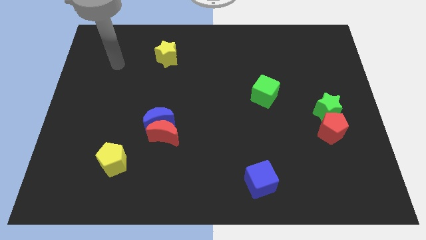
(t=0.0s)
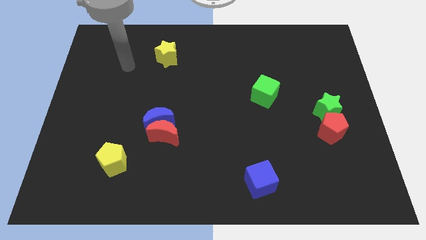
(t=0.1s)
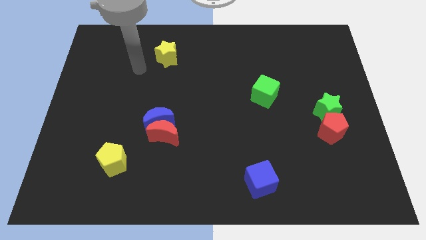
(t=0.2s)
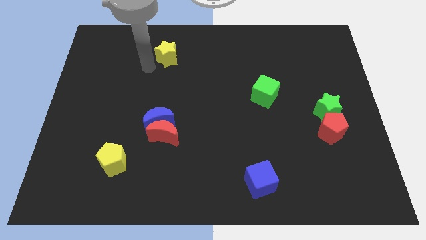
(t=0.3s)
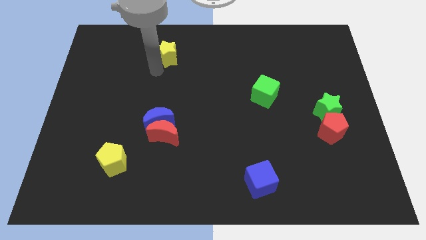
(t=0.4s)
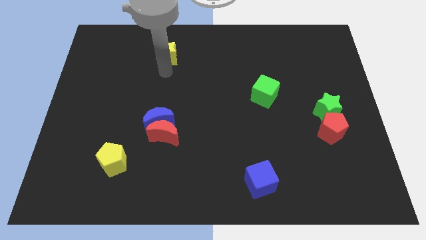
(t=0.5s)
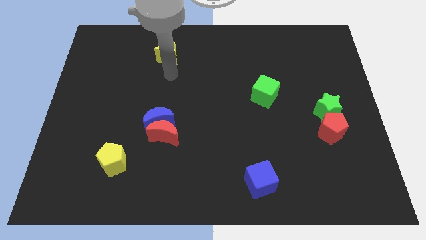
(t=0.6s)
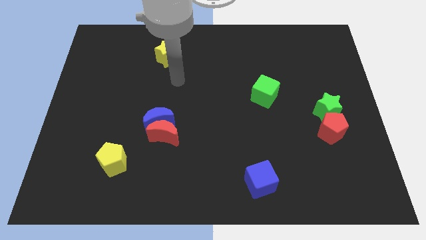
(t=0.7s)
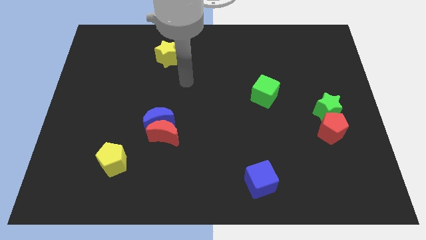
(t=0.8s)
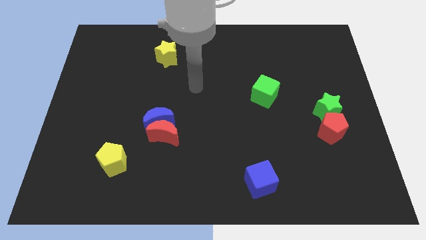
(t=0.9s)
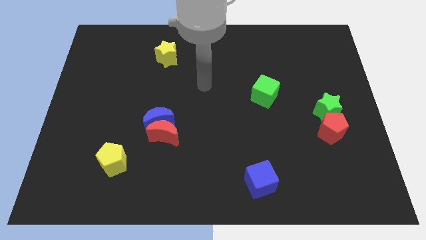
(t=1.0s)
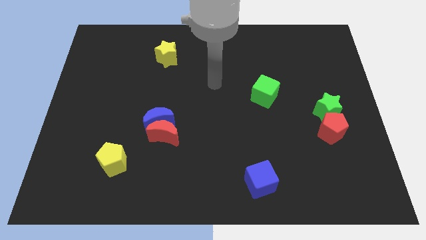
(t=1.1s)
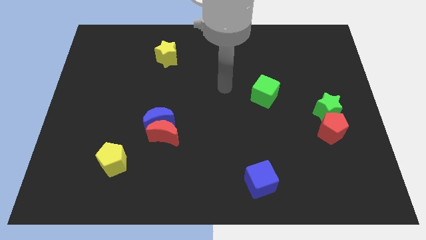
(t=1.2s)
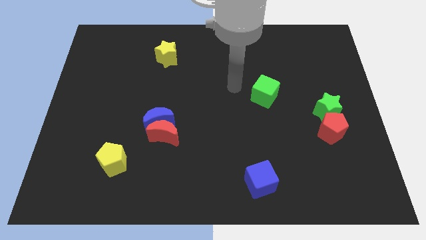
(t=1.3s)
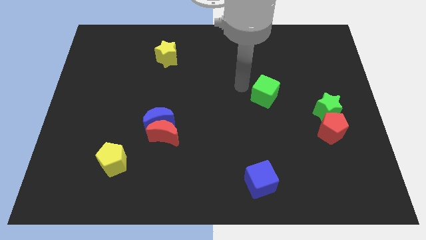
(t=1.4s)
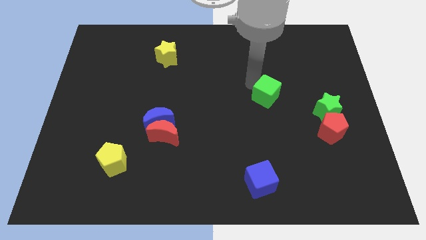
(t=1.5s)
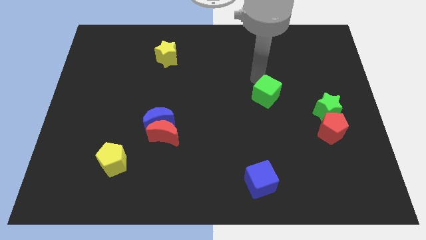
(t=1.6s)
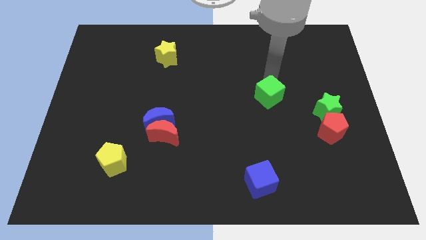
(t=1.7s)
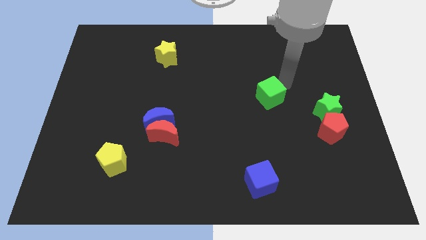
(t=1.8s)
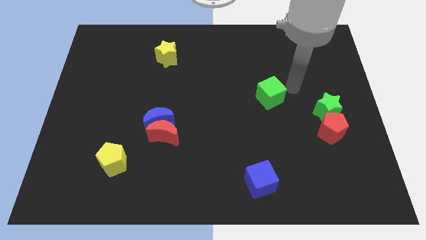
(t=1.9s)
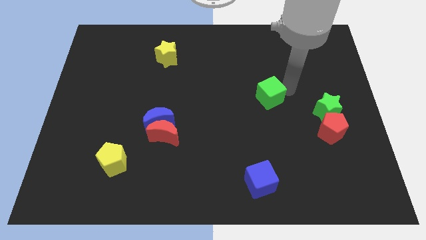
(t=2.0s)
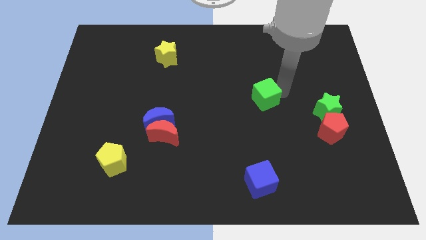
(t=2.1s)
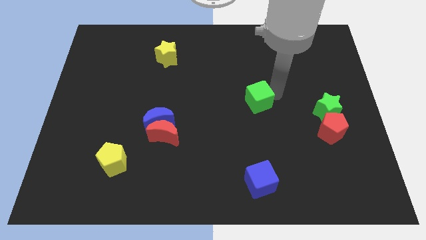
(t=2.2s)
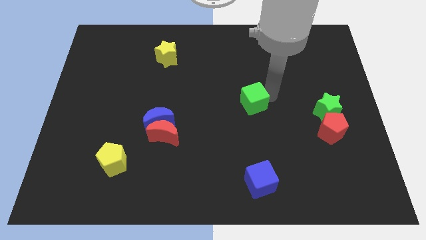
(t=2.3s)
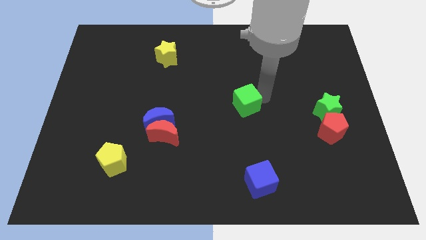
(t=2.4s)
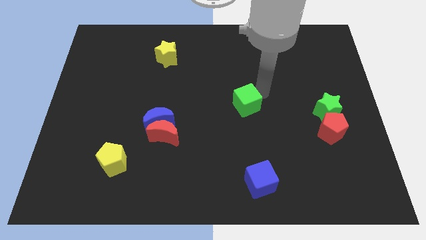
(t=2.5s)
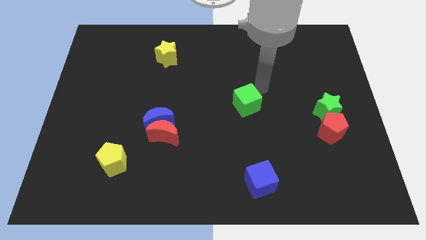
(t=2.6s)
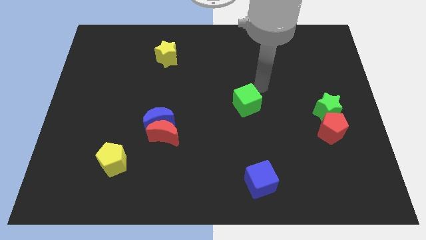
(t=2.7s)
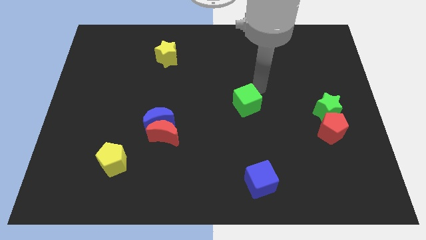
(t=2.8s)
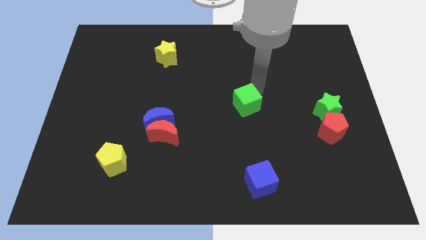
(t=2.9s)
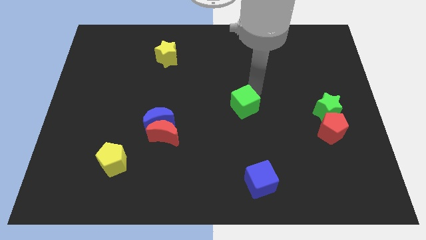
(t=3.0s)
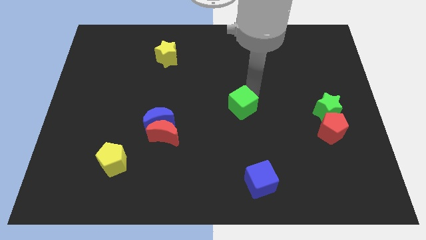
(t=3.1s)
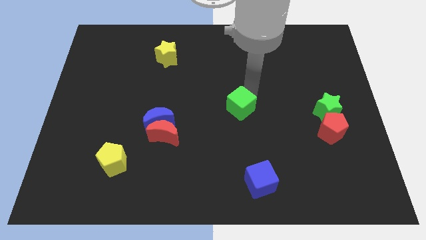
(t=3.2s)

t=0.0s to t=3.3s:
push the green cube diagonally down and to the left slightly

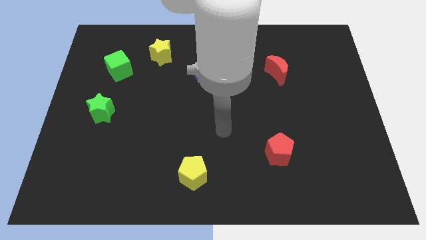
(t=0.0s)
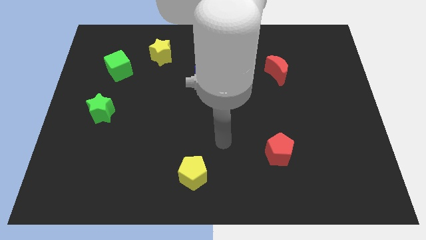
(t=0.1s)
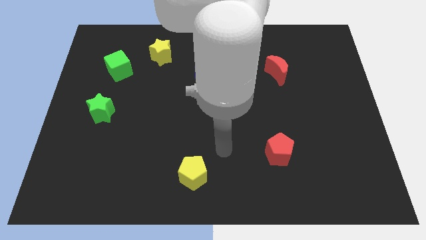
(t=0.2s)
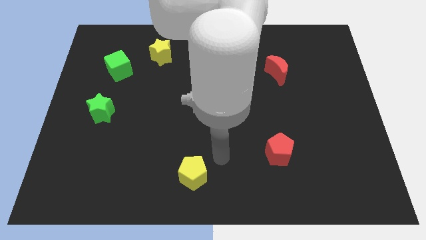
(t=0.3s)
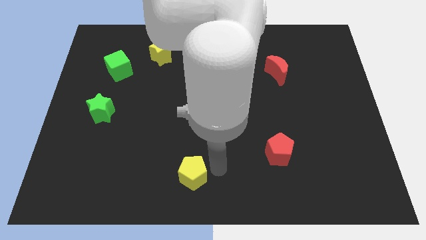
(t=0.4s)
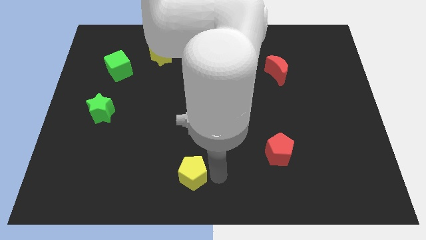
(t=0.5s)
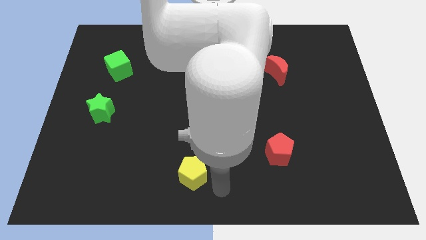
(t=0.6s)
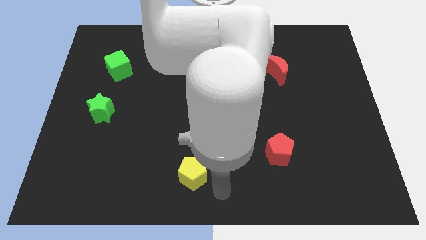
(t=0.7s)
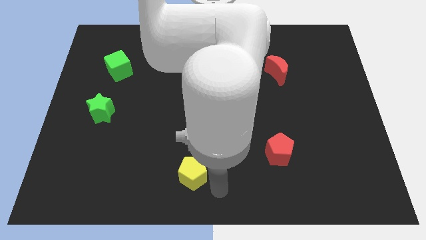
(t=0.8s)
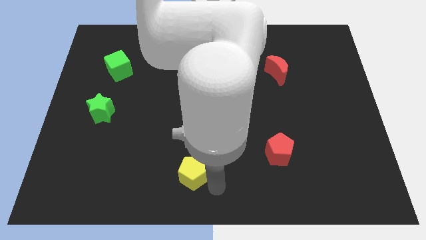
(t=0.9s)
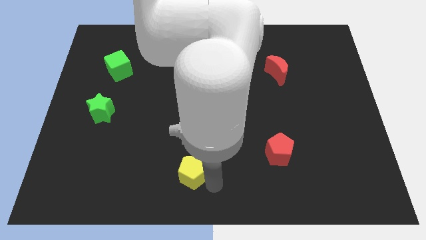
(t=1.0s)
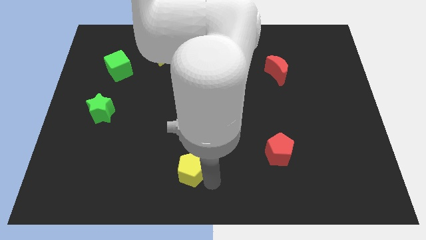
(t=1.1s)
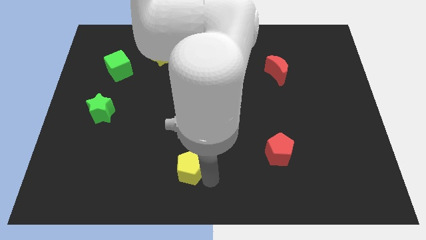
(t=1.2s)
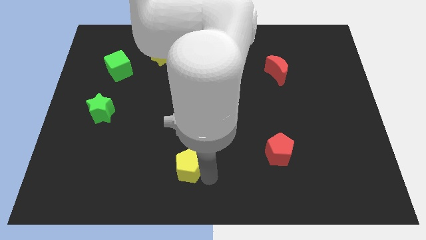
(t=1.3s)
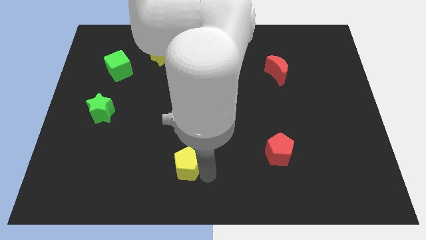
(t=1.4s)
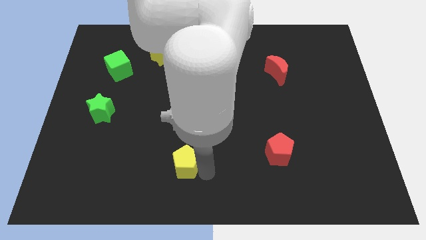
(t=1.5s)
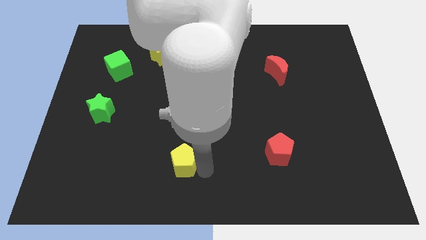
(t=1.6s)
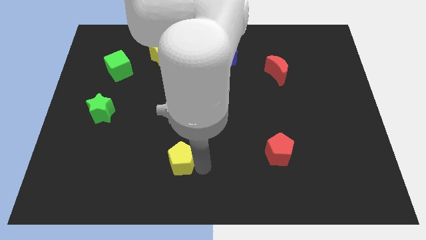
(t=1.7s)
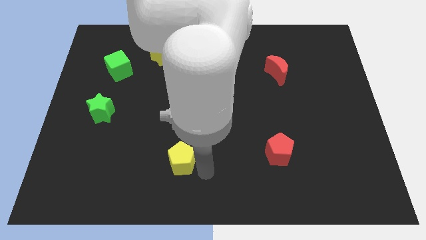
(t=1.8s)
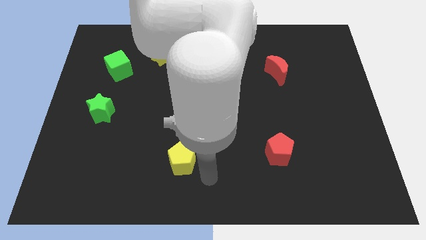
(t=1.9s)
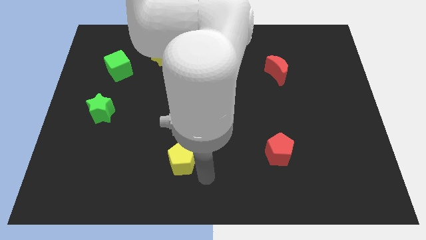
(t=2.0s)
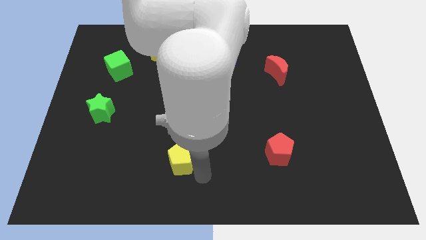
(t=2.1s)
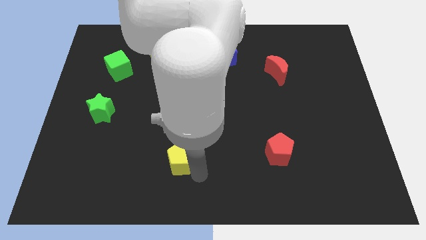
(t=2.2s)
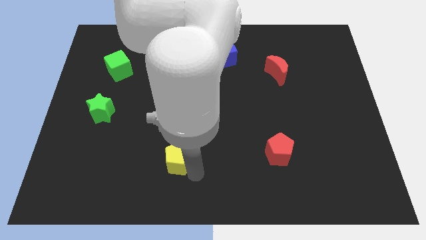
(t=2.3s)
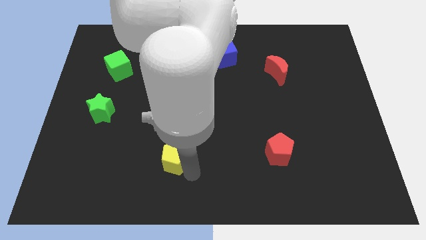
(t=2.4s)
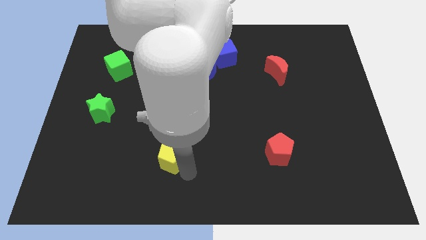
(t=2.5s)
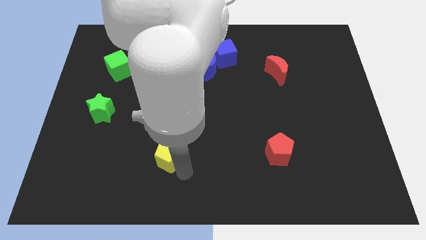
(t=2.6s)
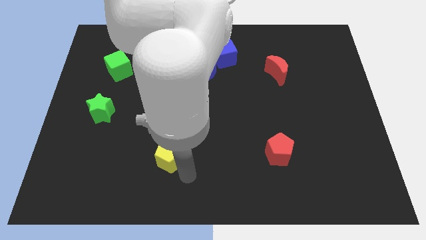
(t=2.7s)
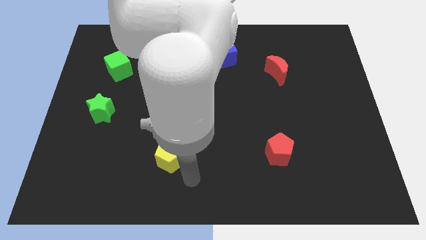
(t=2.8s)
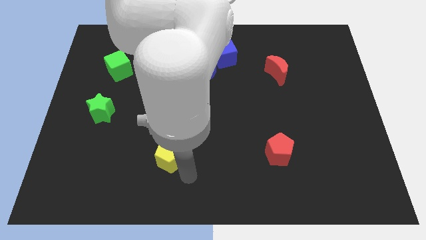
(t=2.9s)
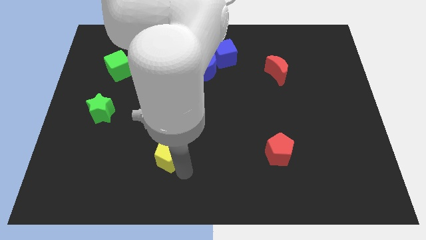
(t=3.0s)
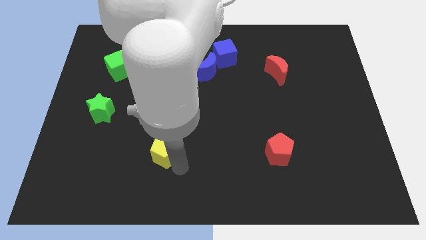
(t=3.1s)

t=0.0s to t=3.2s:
move the yellow pentagon slightly upwards and left

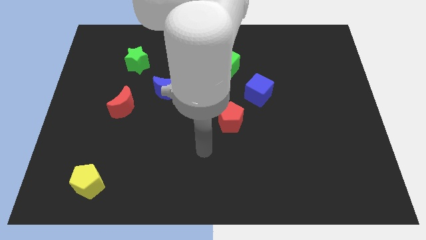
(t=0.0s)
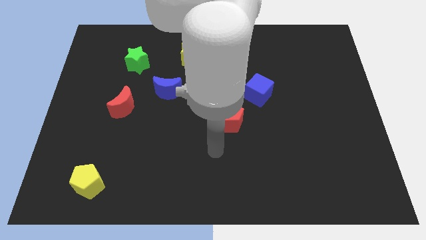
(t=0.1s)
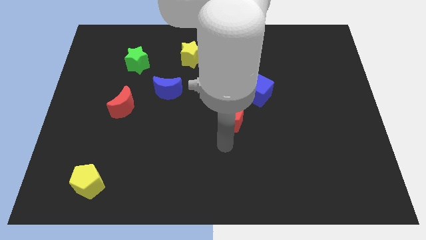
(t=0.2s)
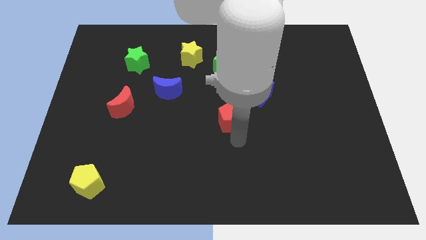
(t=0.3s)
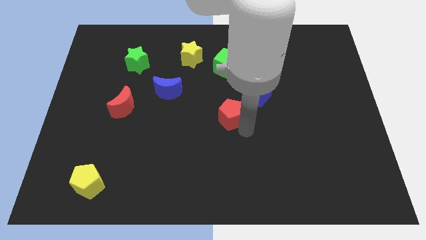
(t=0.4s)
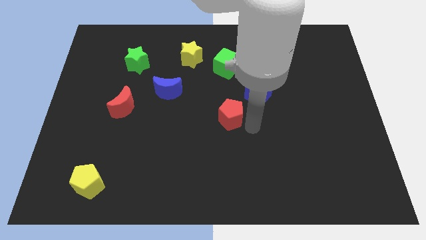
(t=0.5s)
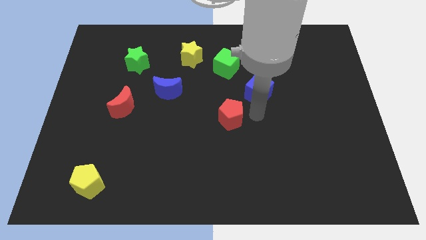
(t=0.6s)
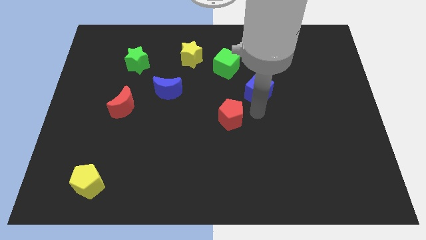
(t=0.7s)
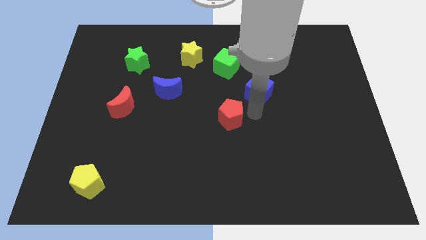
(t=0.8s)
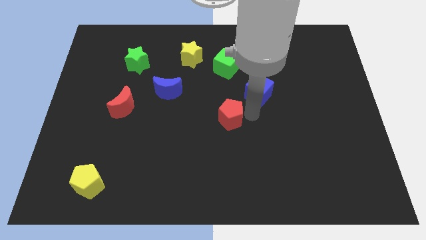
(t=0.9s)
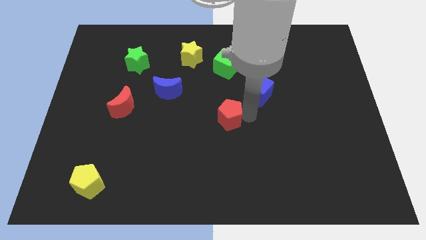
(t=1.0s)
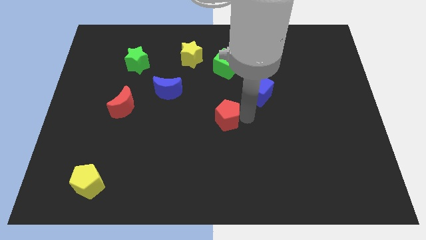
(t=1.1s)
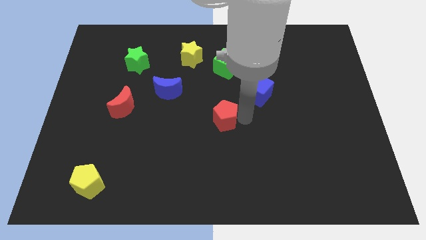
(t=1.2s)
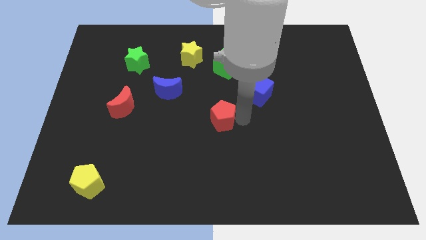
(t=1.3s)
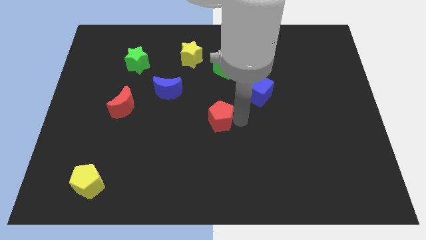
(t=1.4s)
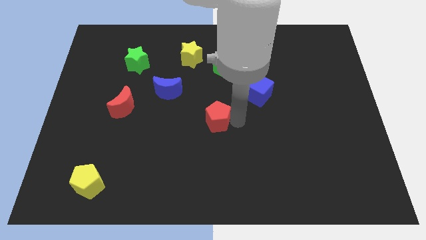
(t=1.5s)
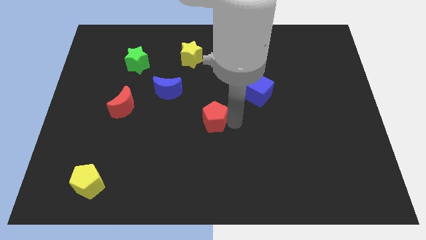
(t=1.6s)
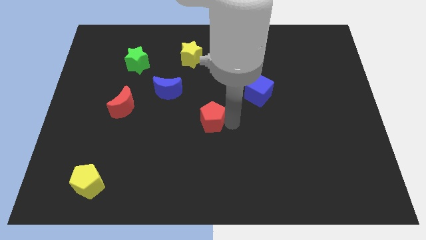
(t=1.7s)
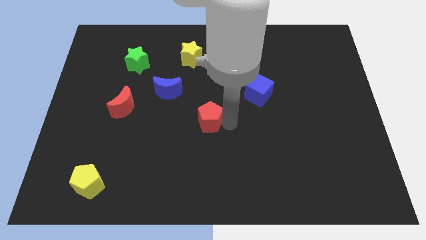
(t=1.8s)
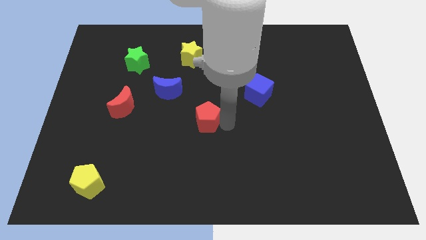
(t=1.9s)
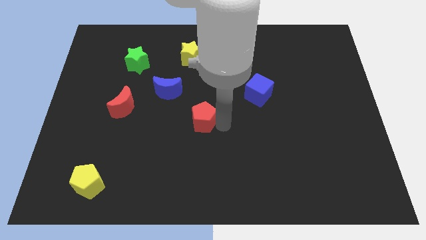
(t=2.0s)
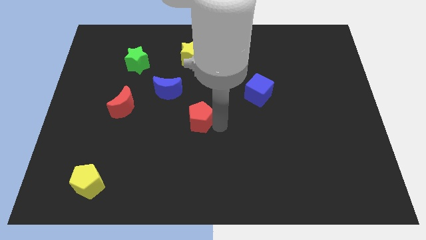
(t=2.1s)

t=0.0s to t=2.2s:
push the red pentagon a little bit left

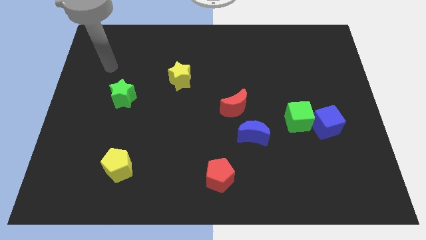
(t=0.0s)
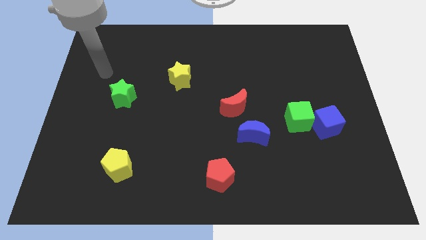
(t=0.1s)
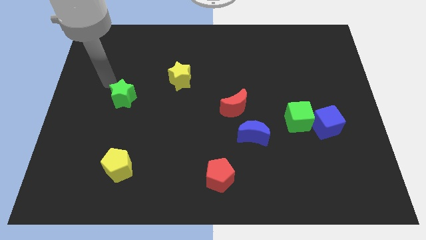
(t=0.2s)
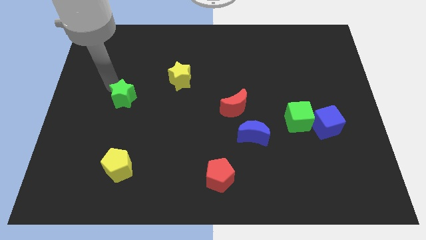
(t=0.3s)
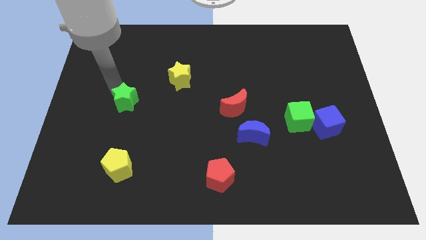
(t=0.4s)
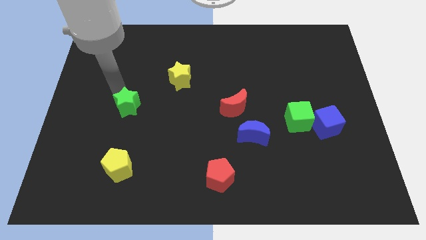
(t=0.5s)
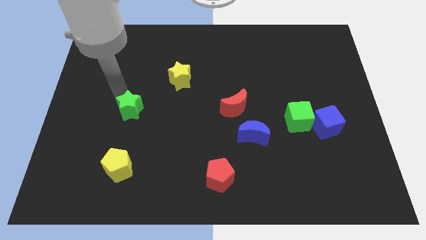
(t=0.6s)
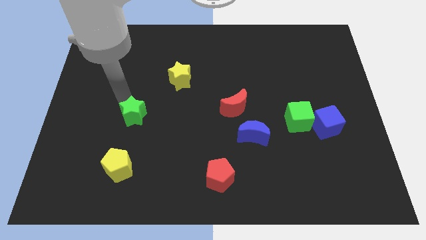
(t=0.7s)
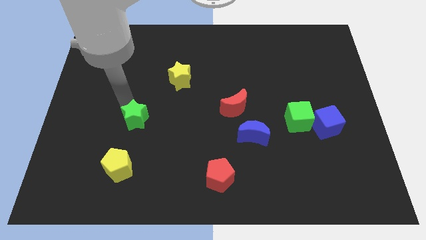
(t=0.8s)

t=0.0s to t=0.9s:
slightly push the green star down and to the right diagonally
